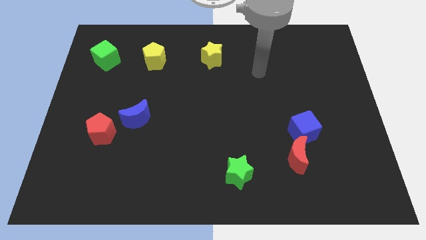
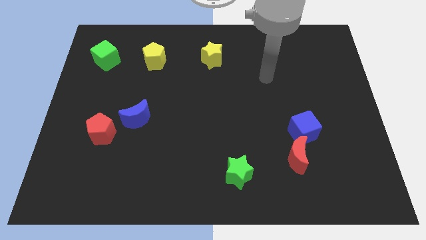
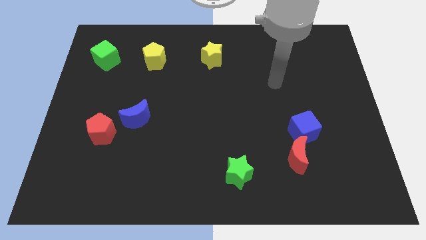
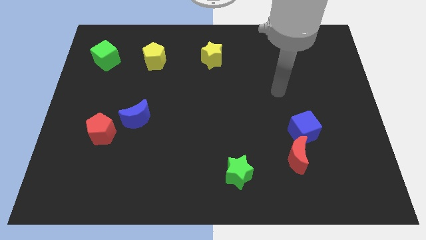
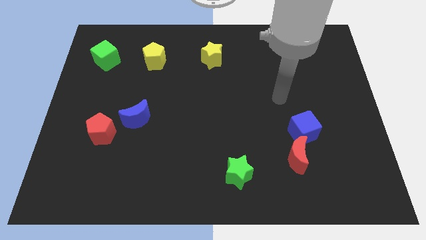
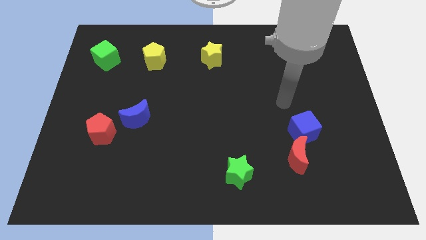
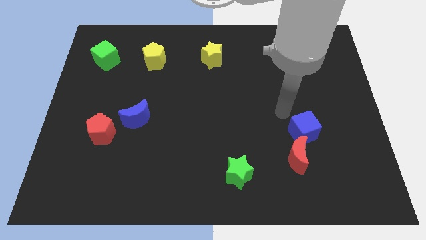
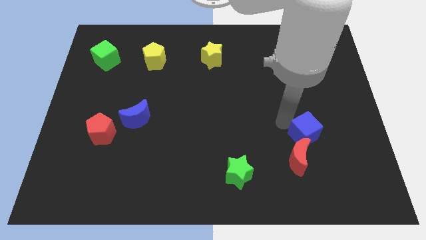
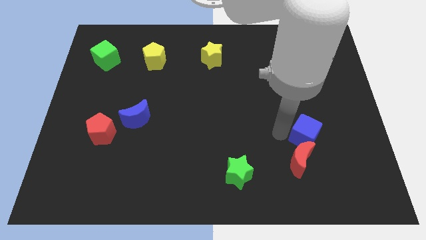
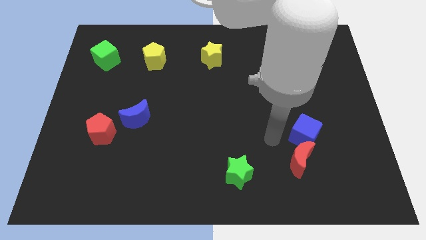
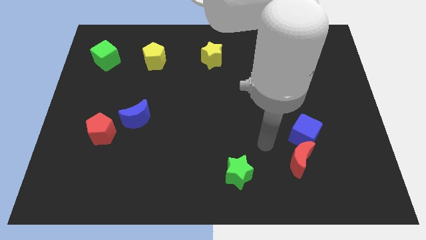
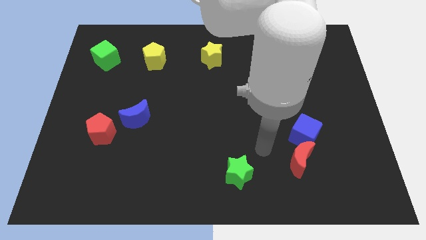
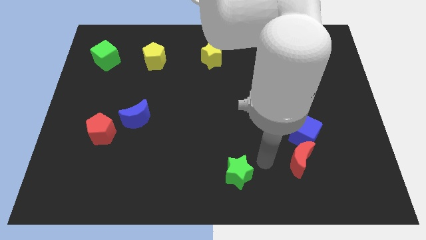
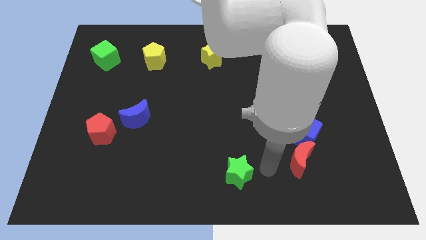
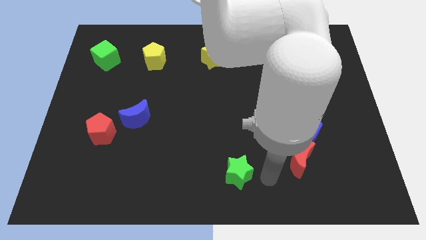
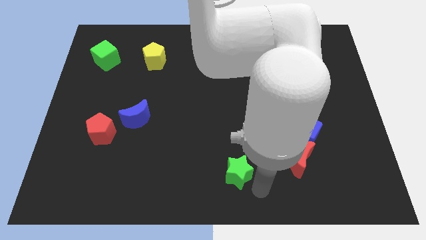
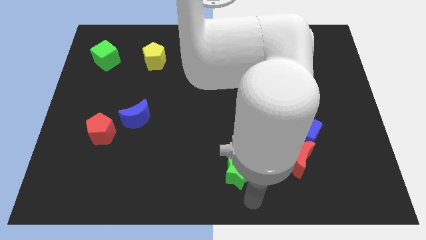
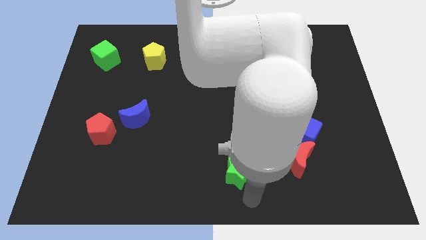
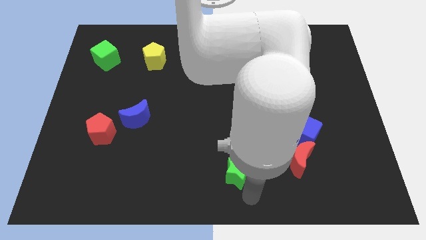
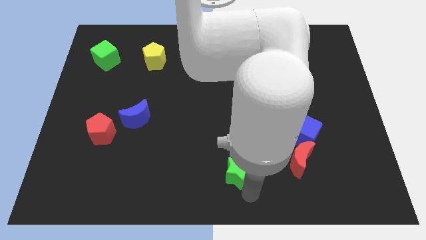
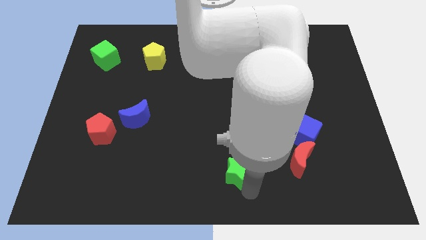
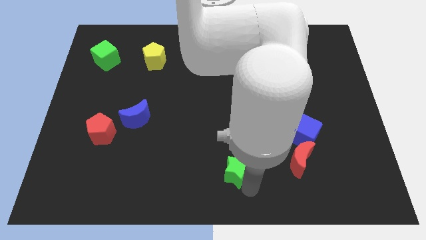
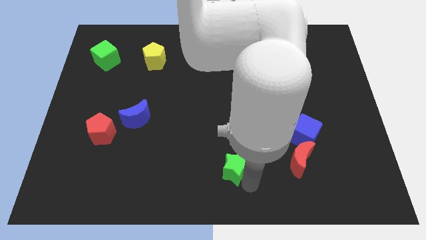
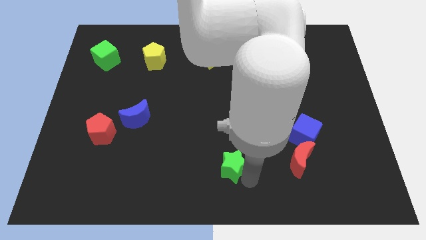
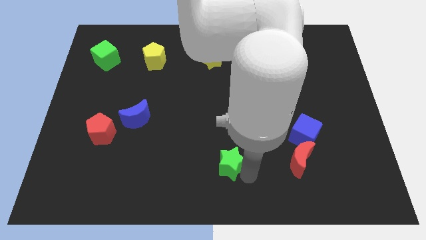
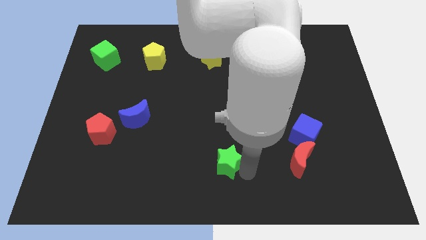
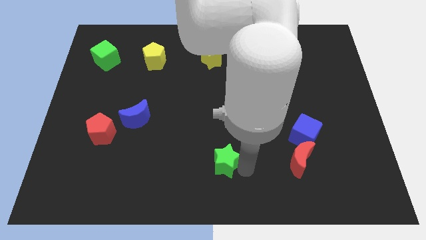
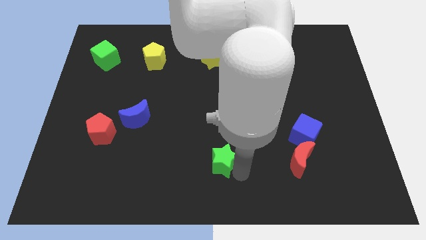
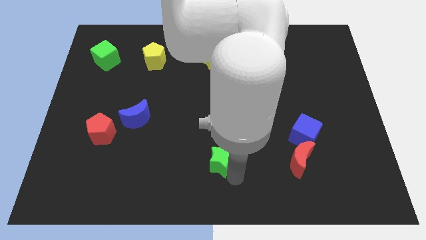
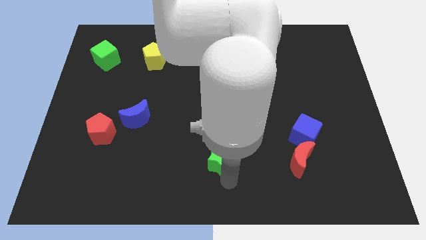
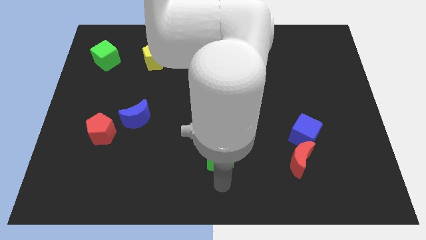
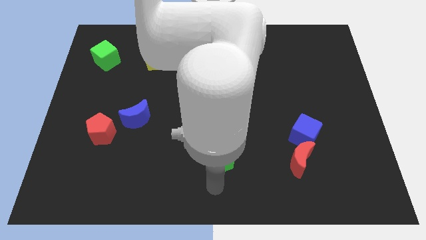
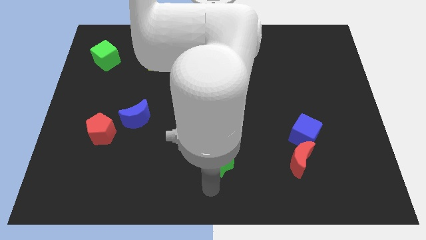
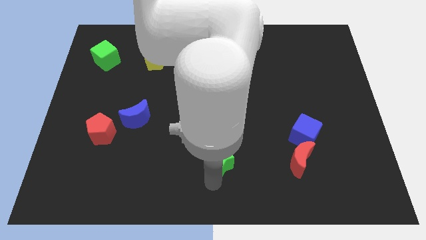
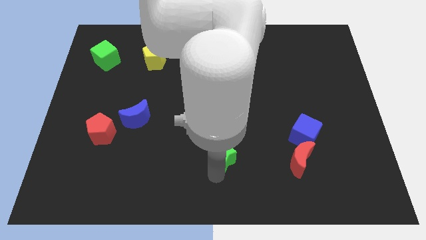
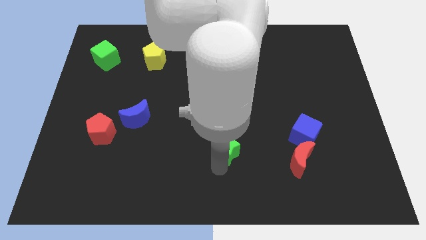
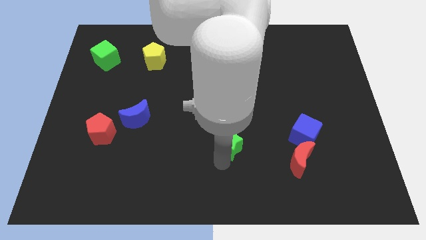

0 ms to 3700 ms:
slightly move the green star up

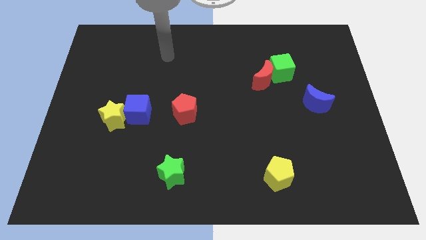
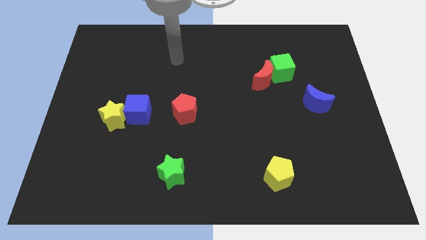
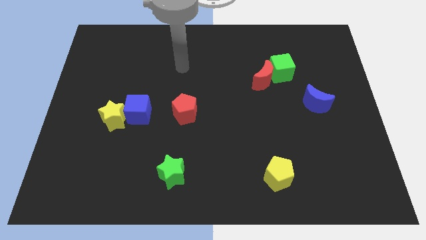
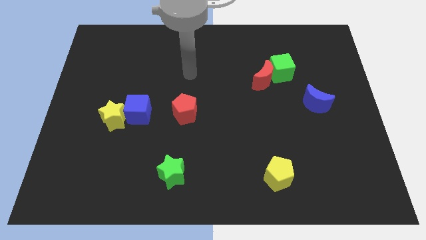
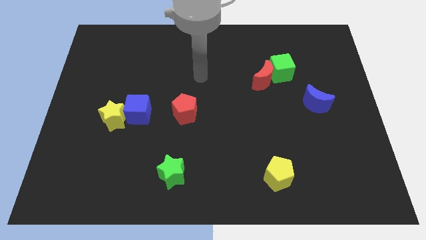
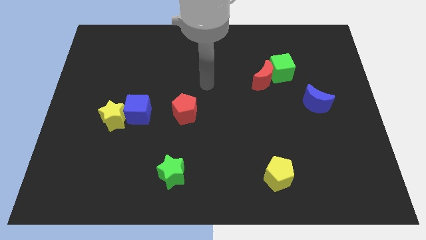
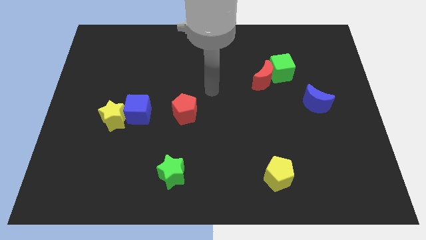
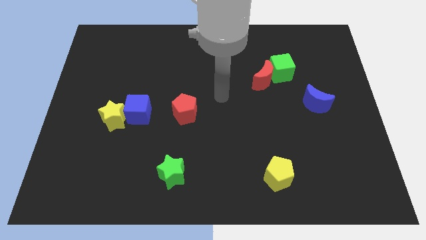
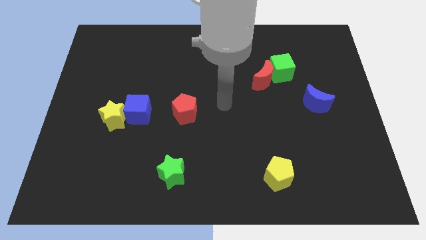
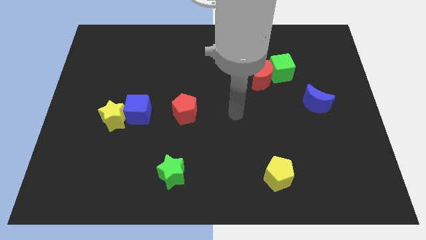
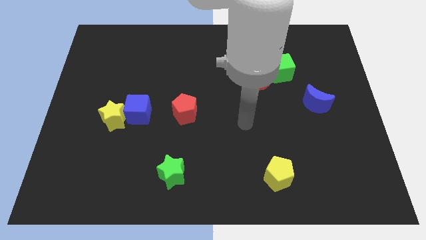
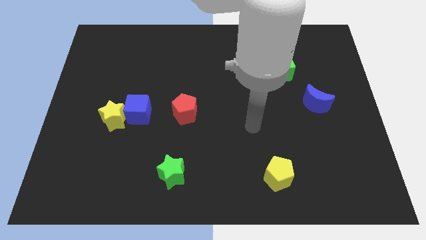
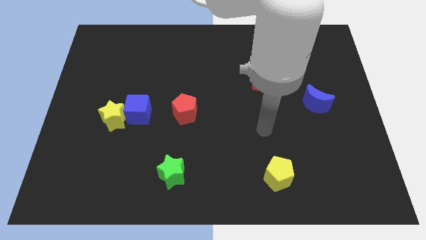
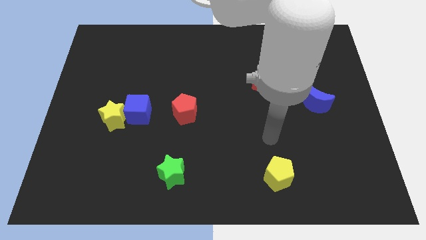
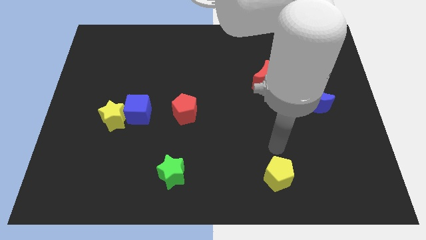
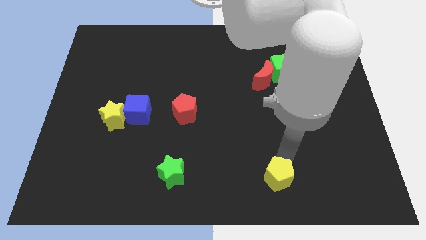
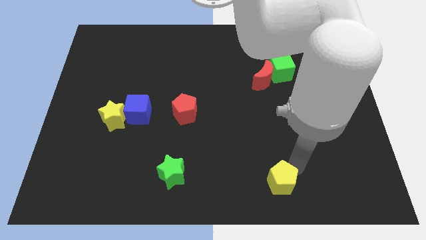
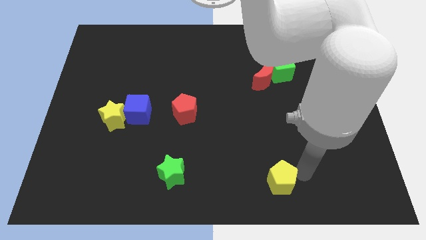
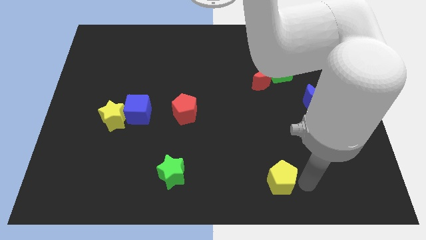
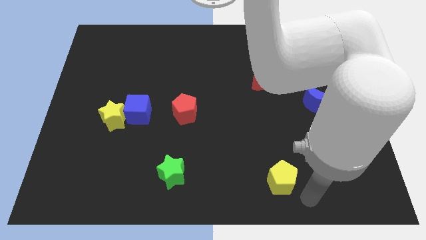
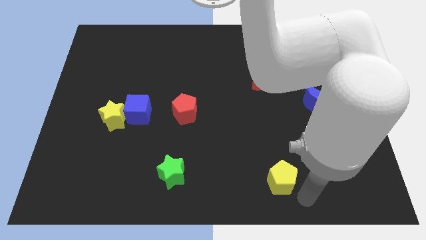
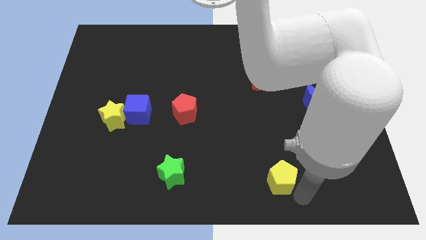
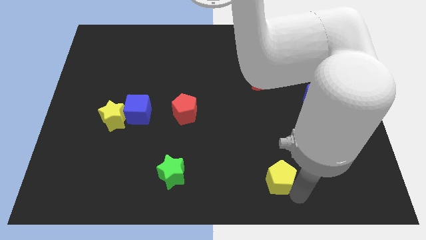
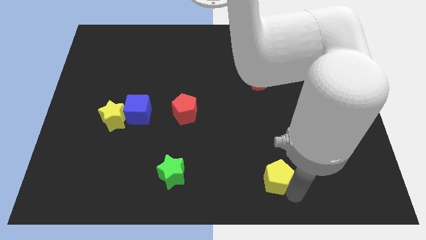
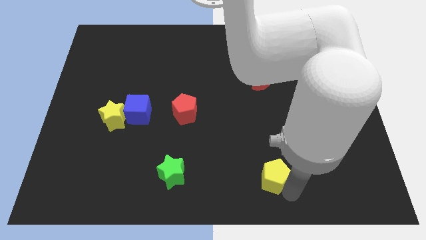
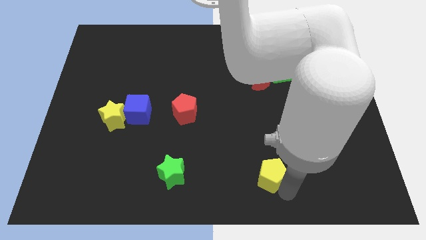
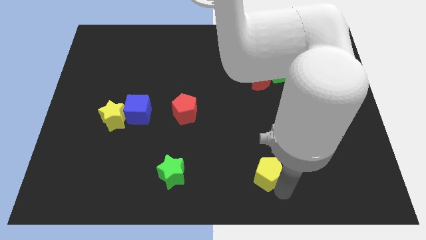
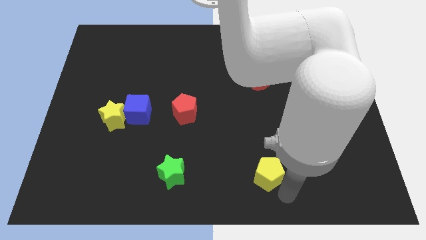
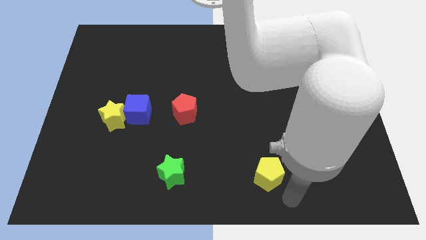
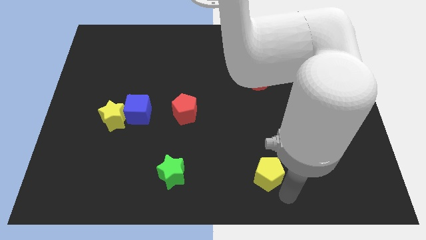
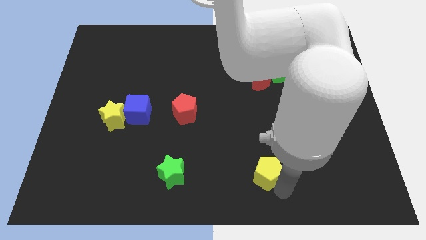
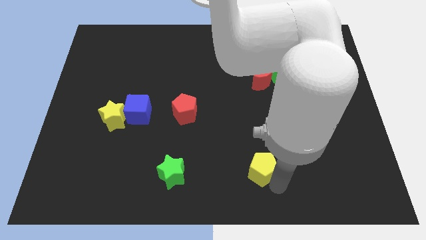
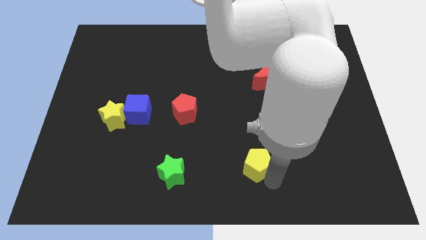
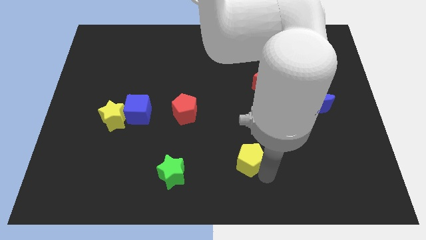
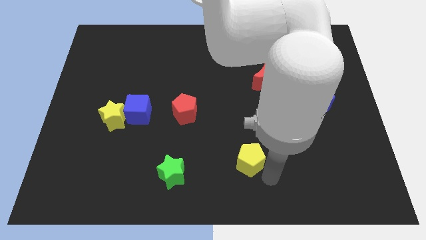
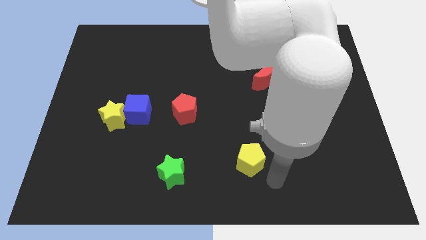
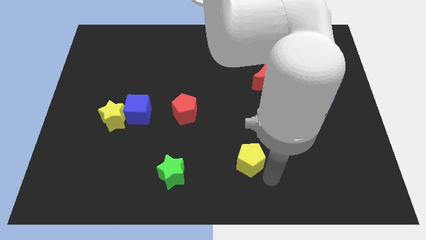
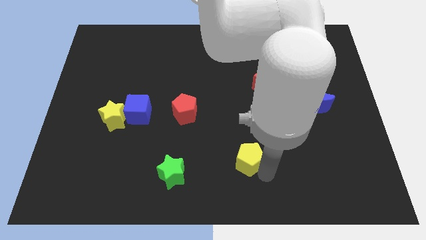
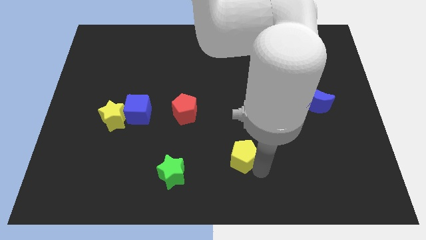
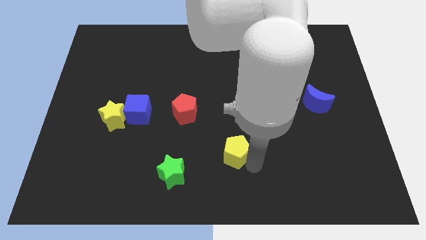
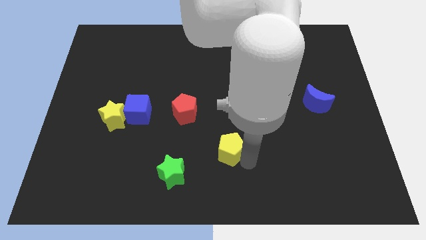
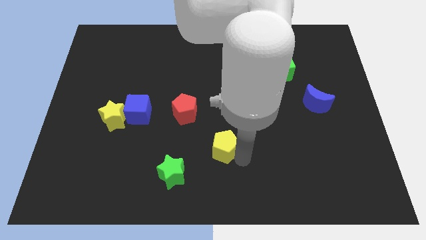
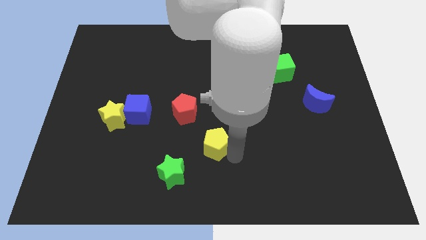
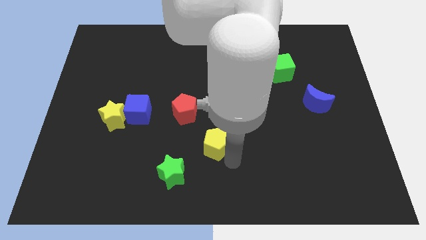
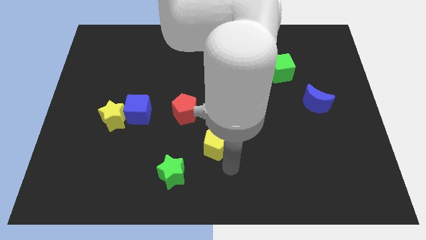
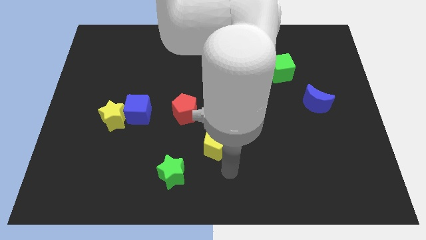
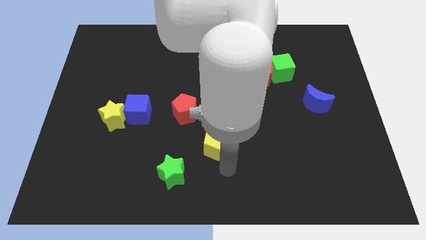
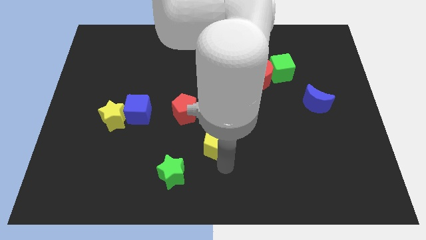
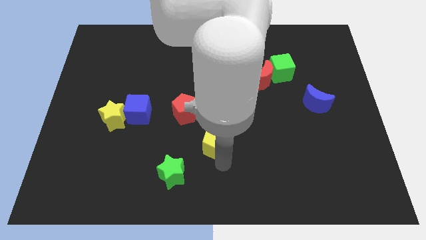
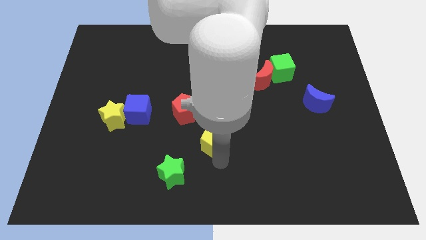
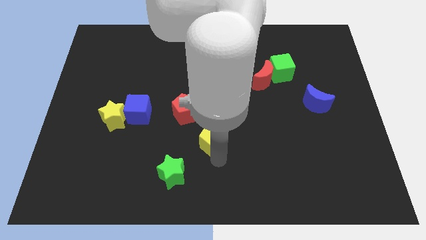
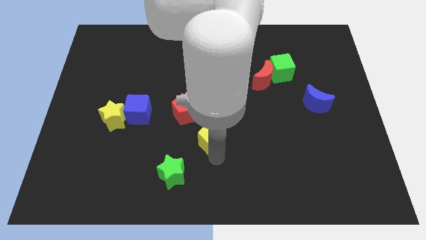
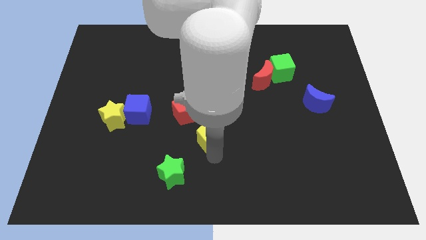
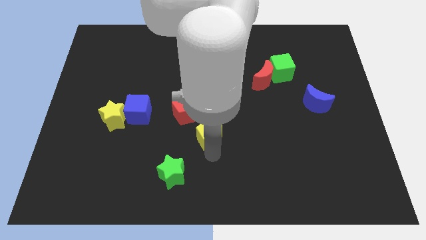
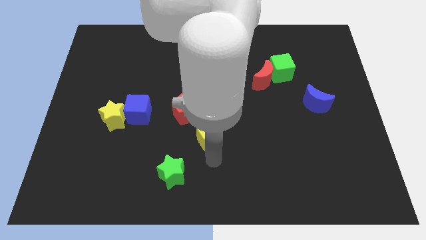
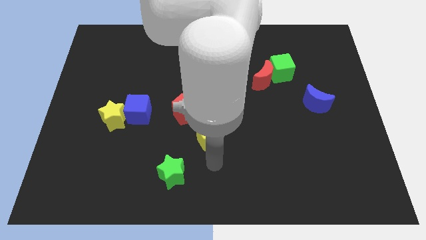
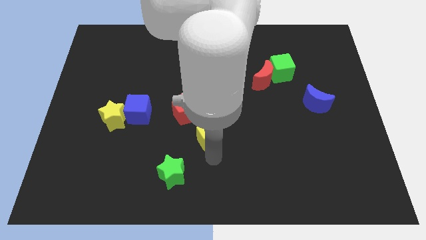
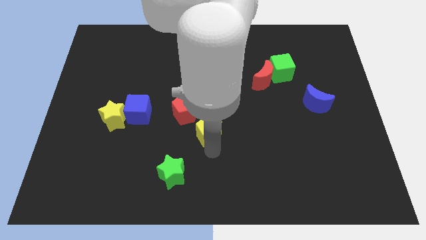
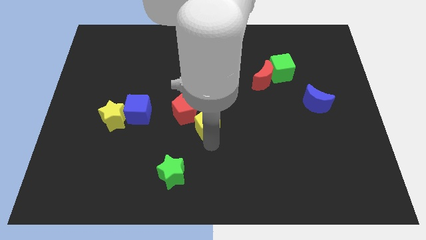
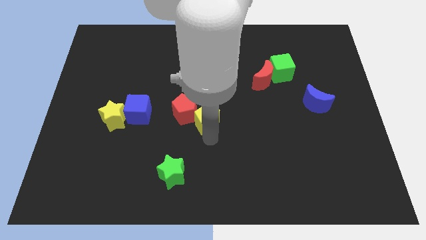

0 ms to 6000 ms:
push the yellow pentagon diagonally upwards and left
